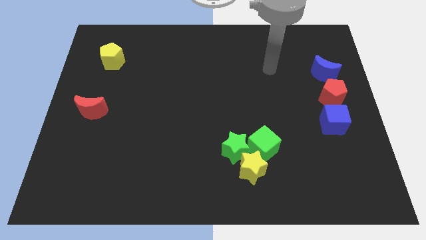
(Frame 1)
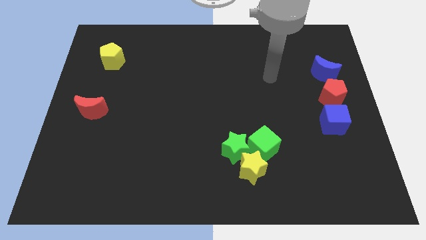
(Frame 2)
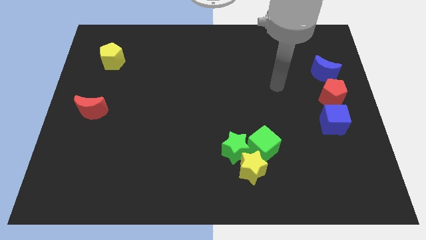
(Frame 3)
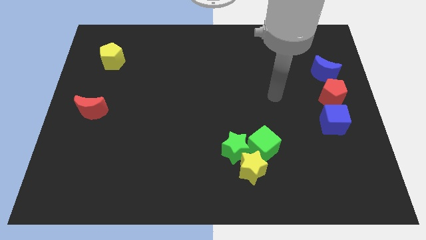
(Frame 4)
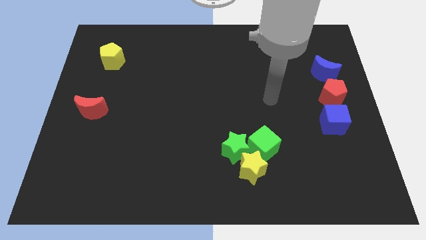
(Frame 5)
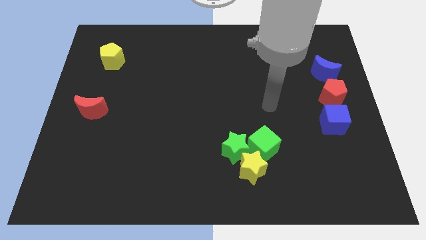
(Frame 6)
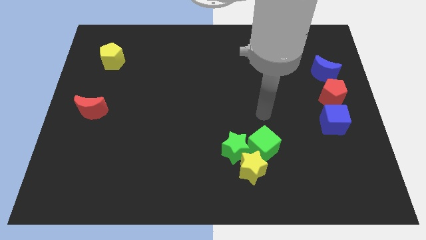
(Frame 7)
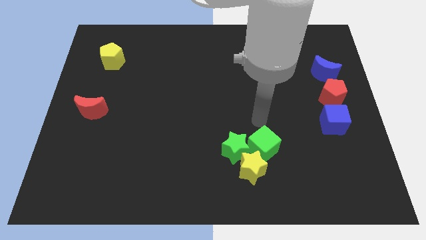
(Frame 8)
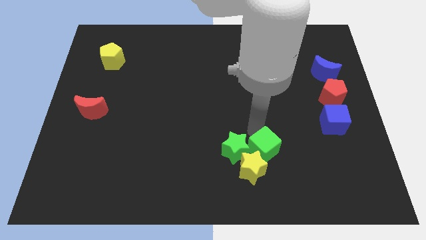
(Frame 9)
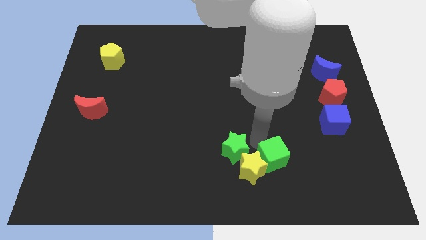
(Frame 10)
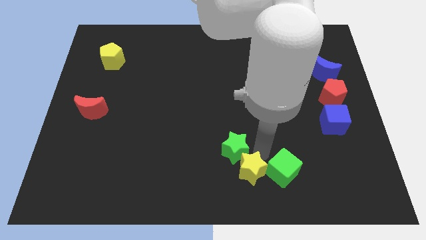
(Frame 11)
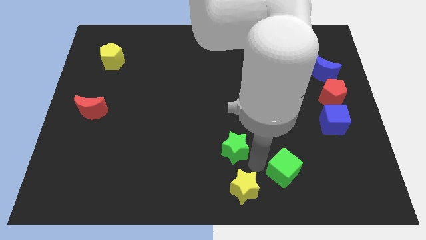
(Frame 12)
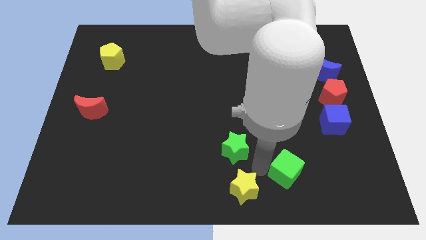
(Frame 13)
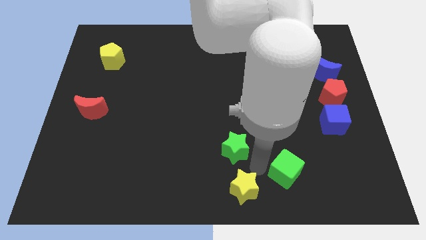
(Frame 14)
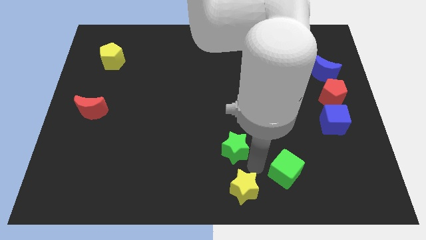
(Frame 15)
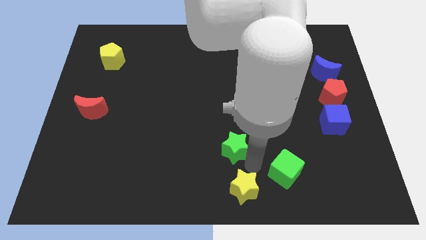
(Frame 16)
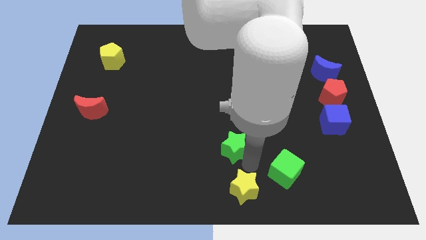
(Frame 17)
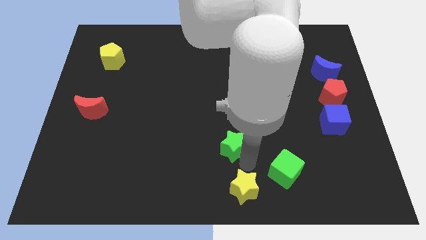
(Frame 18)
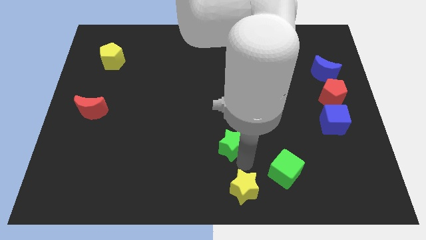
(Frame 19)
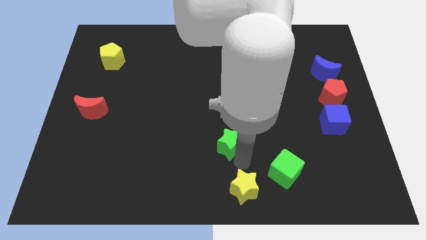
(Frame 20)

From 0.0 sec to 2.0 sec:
pull the green star apart from the yellow star and green cube

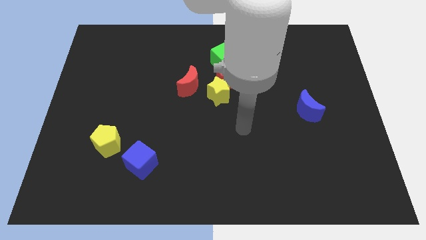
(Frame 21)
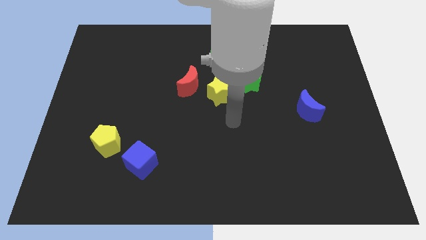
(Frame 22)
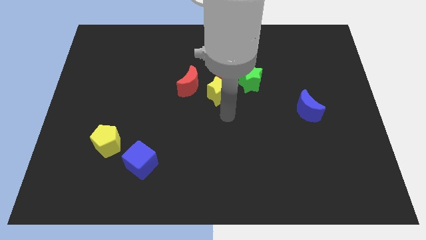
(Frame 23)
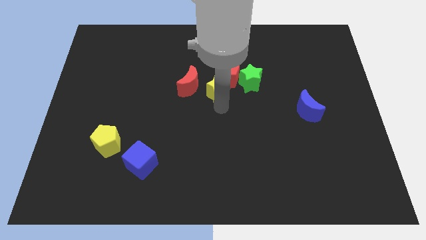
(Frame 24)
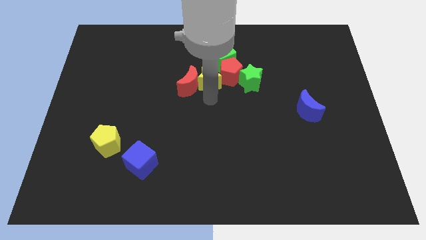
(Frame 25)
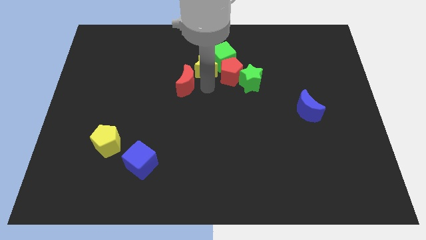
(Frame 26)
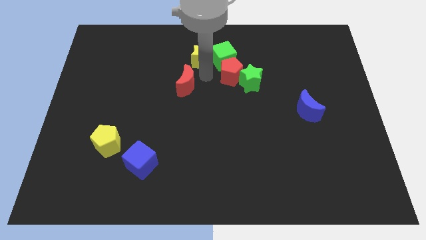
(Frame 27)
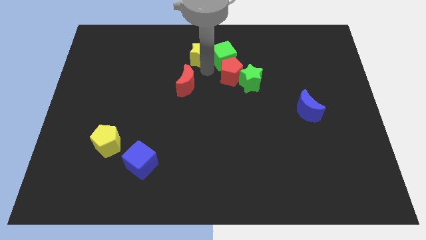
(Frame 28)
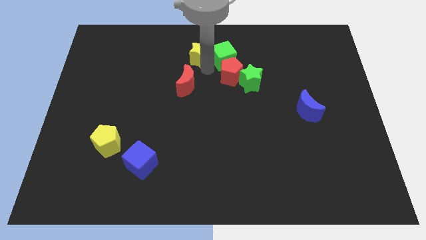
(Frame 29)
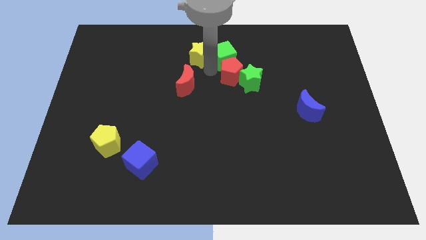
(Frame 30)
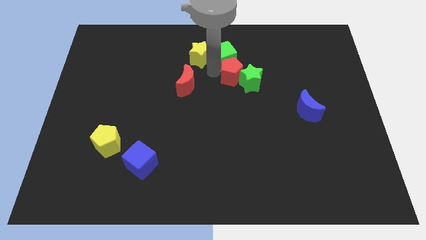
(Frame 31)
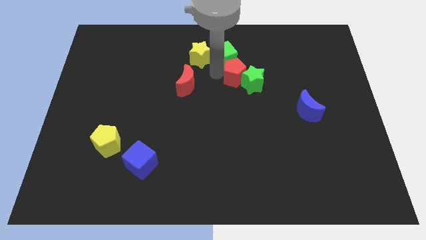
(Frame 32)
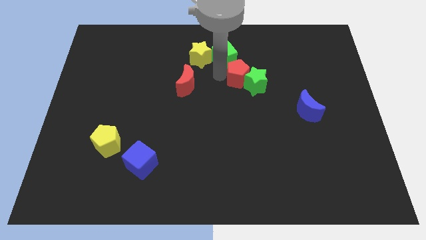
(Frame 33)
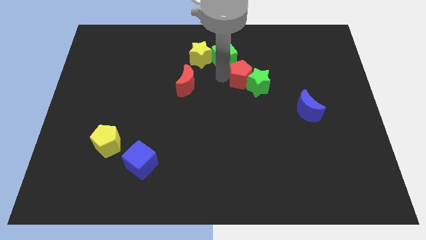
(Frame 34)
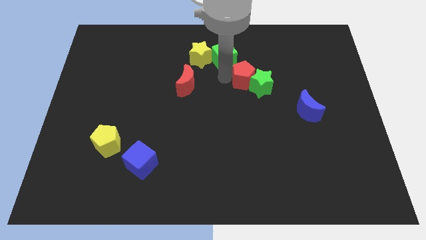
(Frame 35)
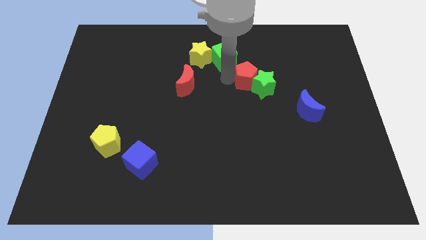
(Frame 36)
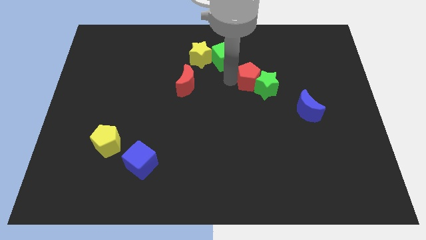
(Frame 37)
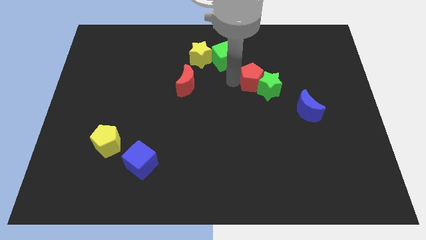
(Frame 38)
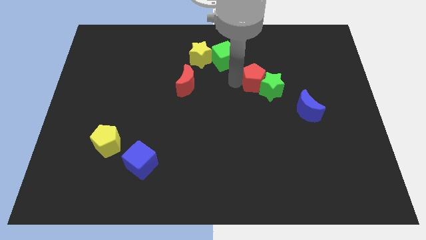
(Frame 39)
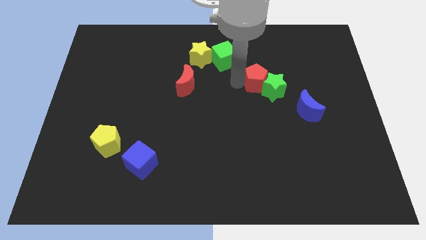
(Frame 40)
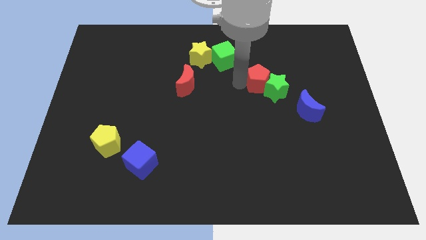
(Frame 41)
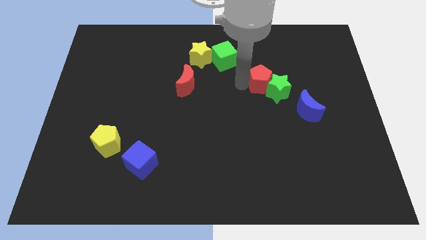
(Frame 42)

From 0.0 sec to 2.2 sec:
pull the red pentagon apart from the group of blocks

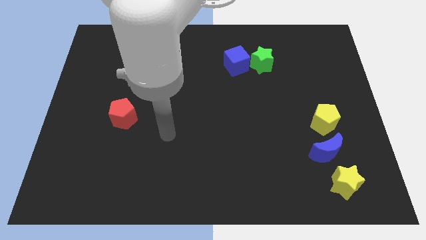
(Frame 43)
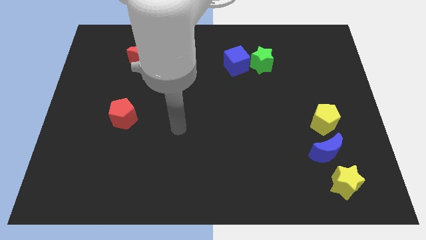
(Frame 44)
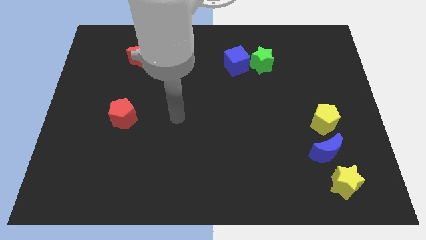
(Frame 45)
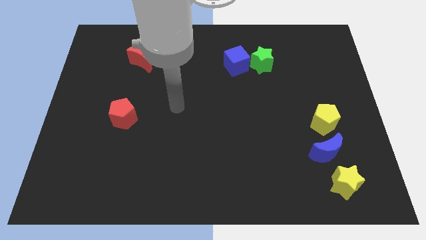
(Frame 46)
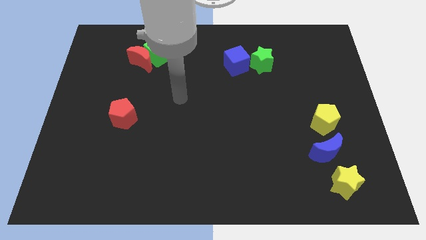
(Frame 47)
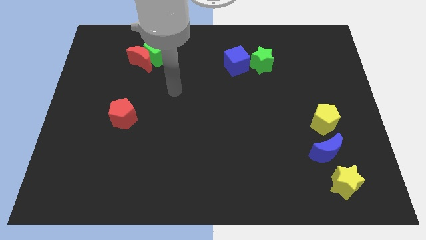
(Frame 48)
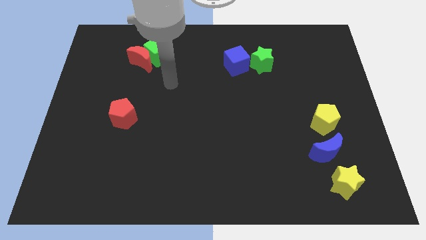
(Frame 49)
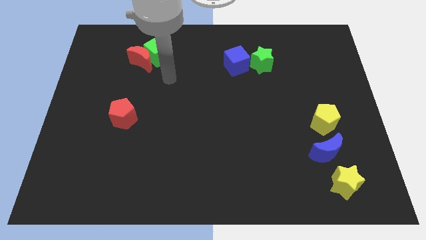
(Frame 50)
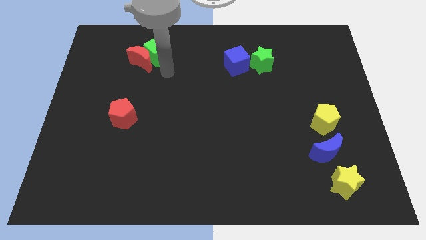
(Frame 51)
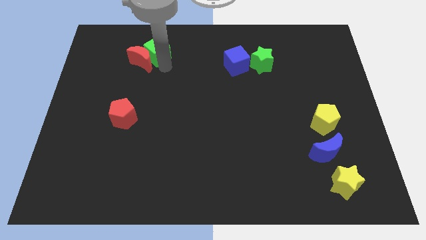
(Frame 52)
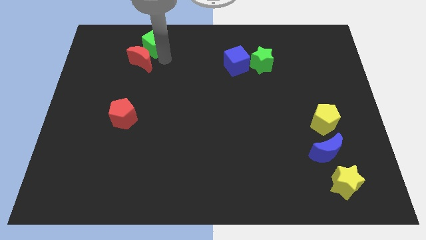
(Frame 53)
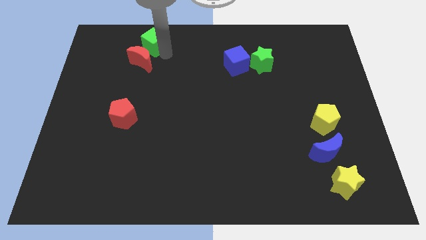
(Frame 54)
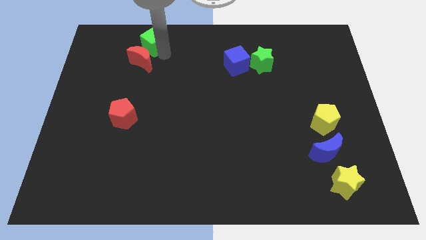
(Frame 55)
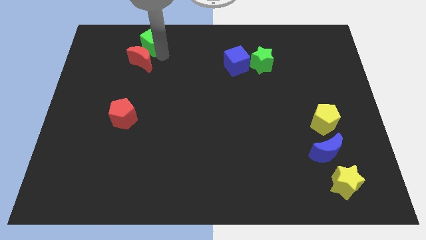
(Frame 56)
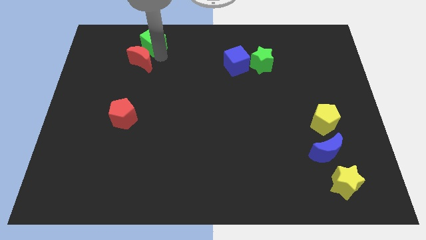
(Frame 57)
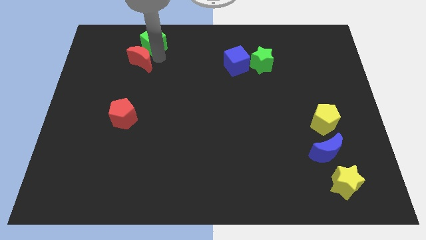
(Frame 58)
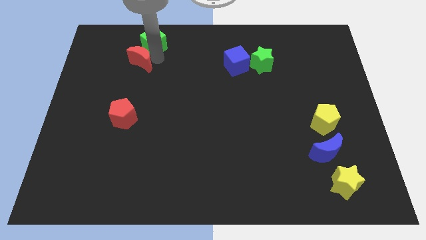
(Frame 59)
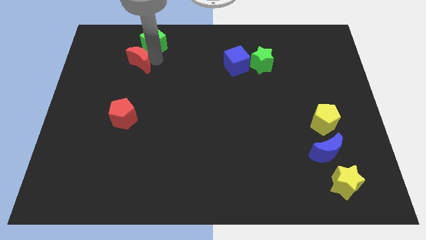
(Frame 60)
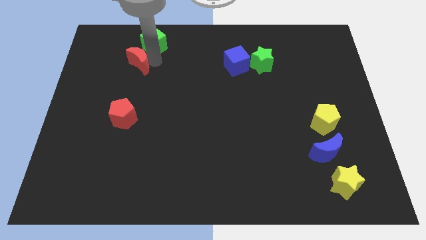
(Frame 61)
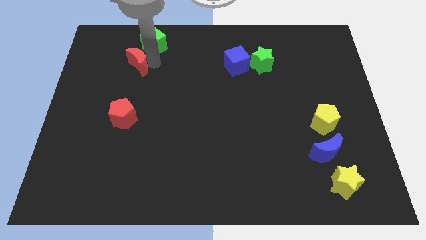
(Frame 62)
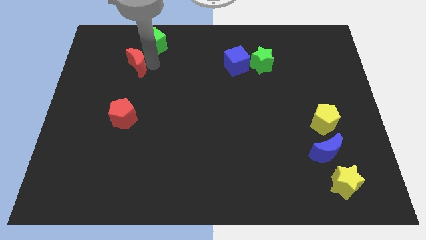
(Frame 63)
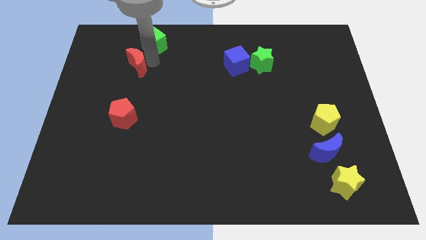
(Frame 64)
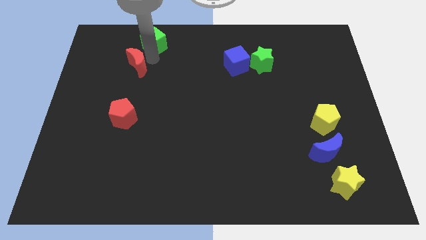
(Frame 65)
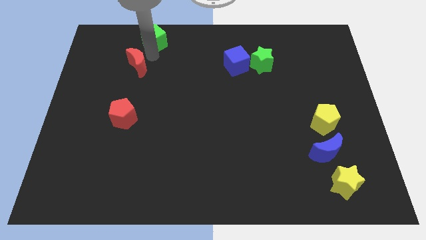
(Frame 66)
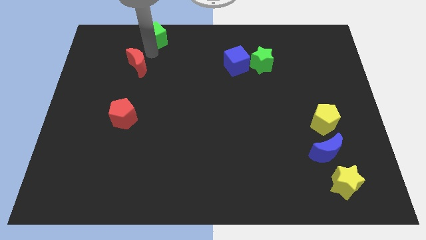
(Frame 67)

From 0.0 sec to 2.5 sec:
move the red moon away from the green cube

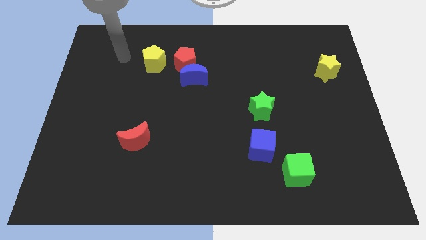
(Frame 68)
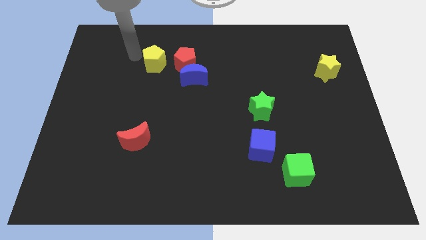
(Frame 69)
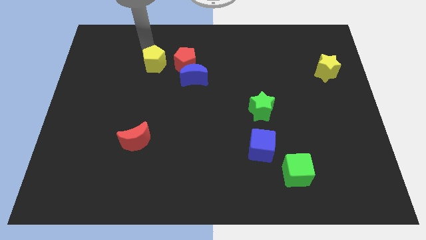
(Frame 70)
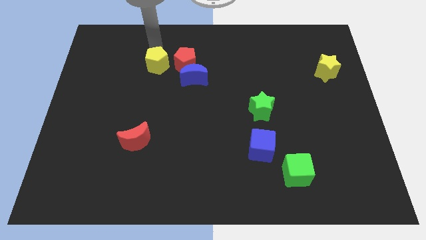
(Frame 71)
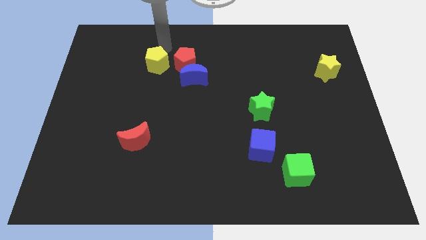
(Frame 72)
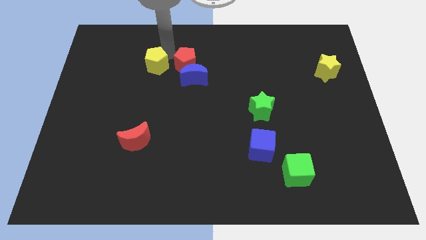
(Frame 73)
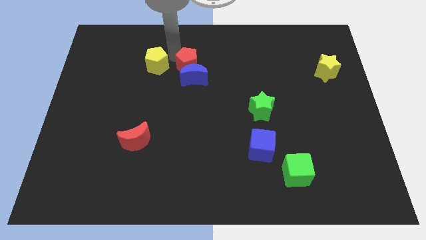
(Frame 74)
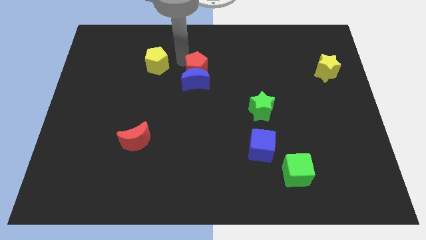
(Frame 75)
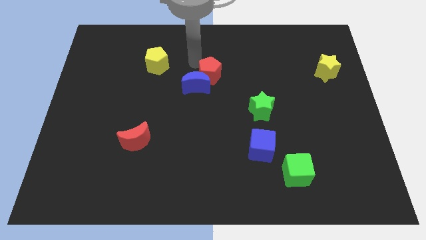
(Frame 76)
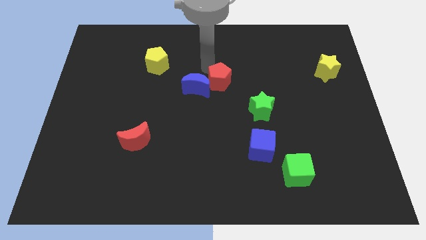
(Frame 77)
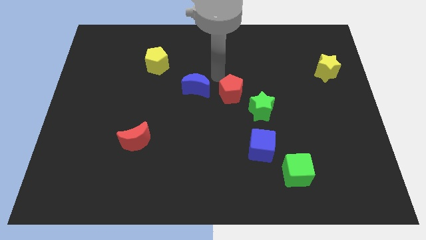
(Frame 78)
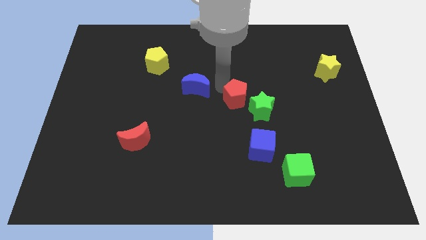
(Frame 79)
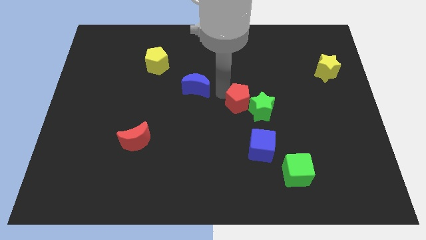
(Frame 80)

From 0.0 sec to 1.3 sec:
separate the blue moon from the red pentagon

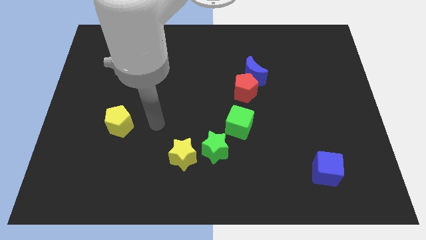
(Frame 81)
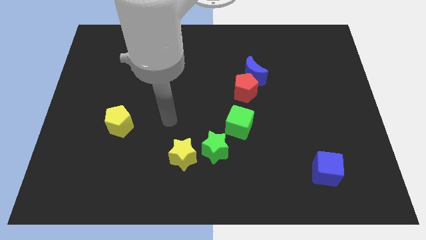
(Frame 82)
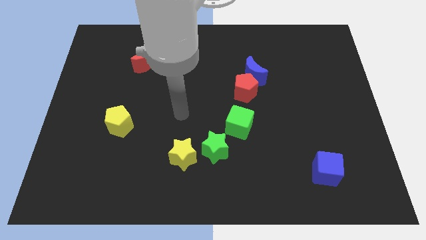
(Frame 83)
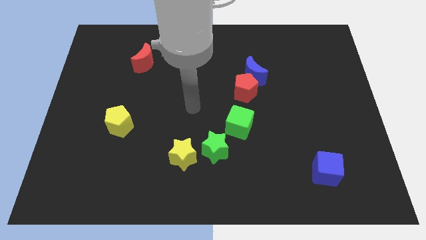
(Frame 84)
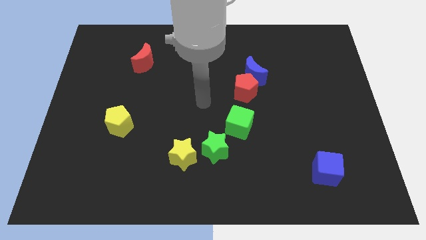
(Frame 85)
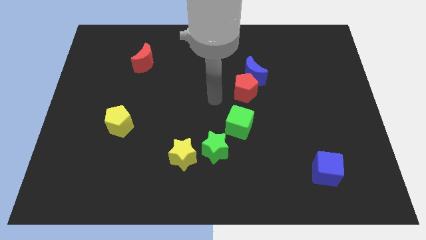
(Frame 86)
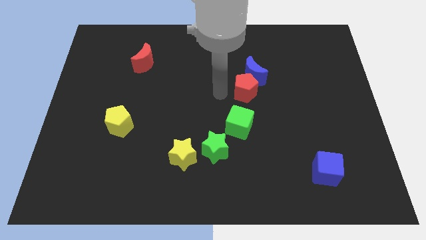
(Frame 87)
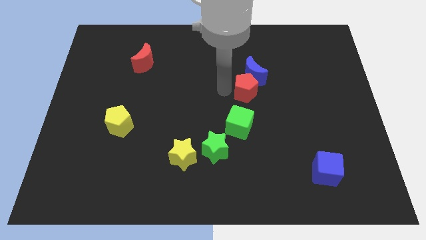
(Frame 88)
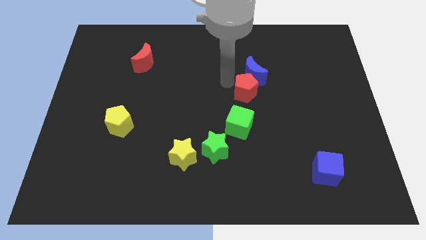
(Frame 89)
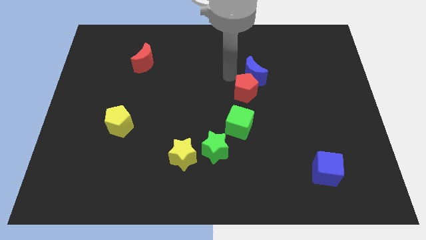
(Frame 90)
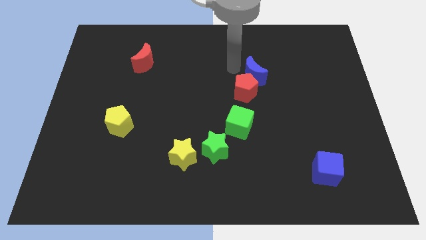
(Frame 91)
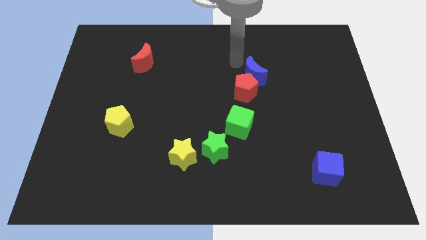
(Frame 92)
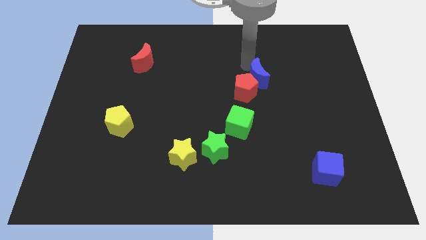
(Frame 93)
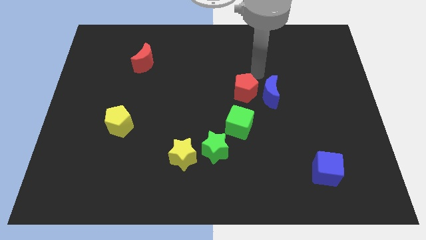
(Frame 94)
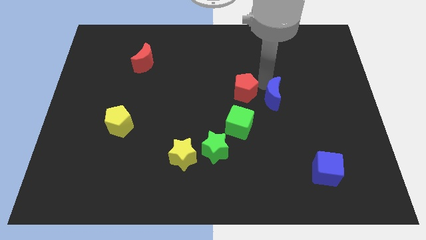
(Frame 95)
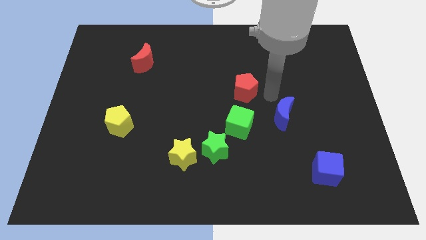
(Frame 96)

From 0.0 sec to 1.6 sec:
move the red pentagon away from the blue moon
